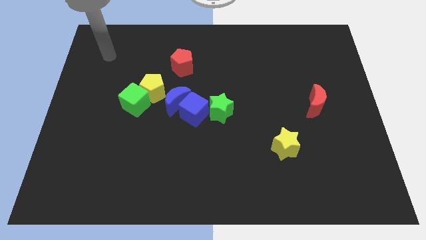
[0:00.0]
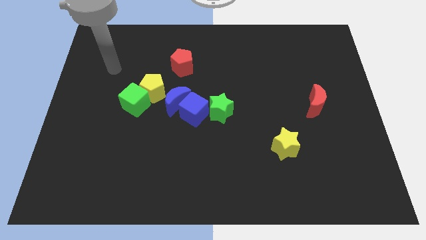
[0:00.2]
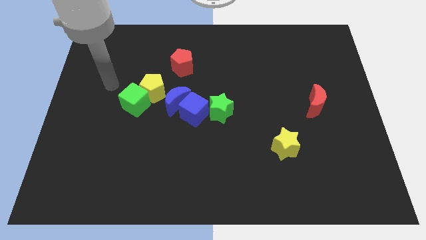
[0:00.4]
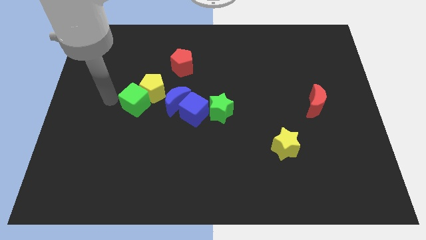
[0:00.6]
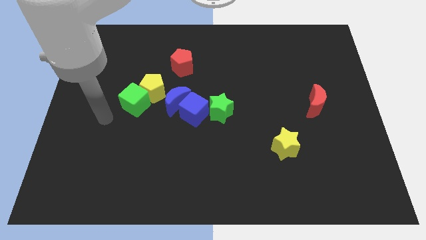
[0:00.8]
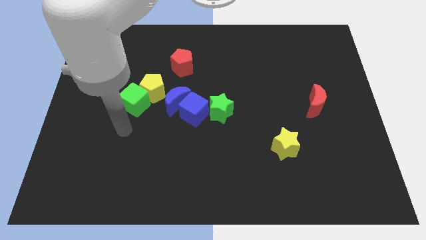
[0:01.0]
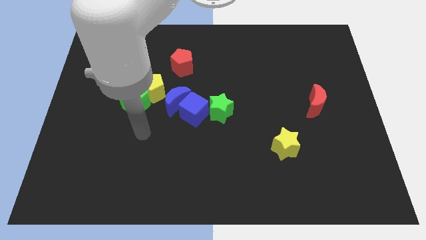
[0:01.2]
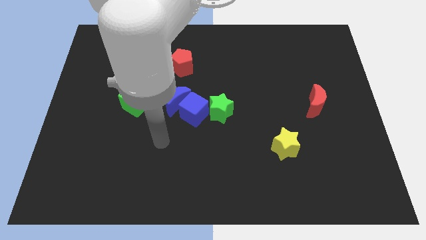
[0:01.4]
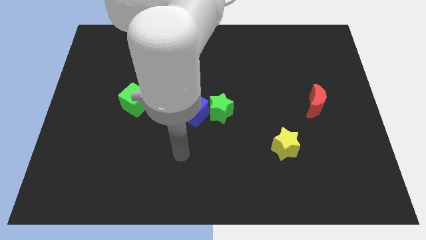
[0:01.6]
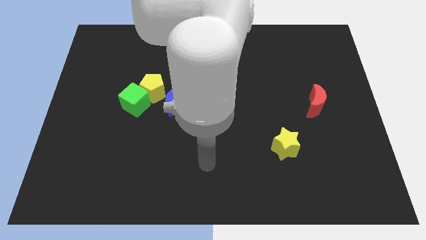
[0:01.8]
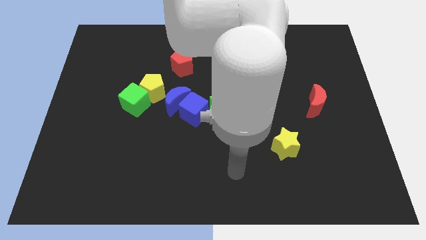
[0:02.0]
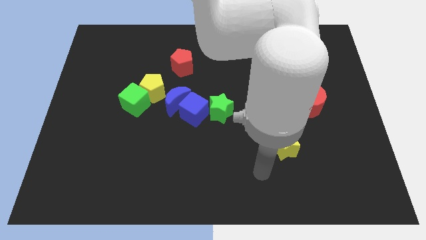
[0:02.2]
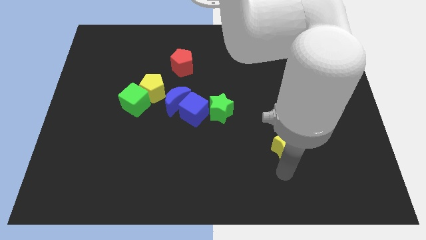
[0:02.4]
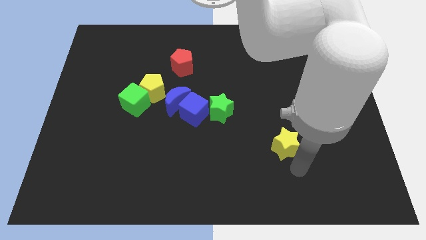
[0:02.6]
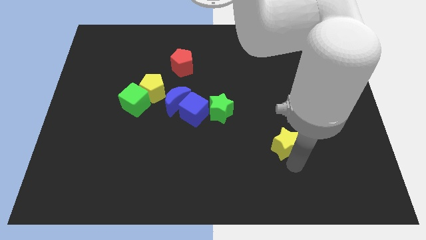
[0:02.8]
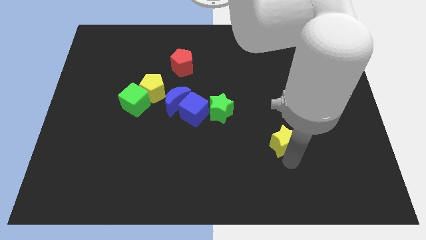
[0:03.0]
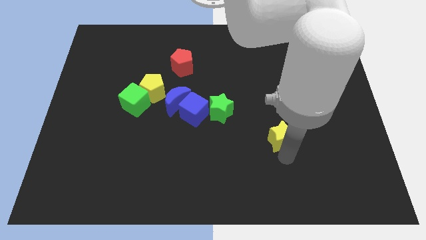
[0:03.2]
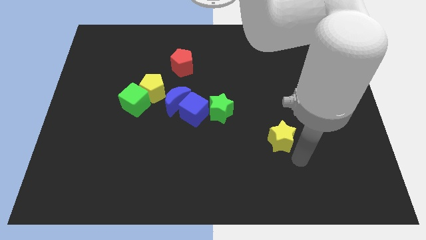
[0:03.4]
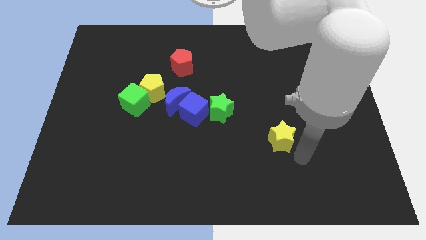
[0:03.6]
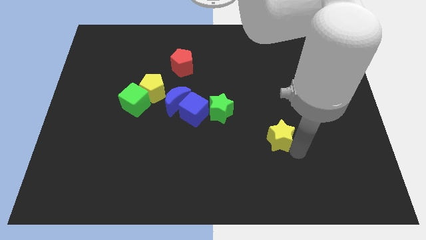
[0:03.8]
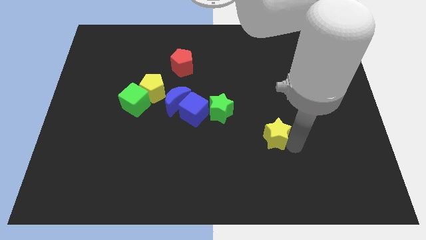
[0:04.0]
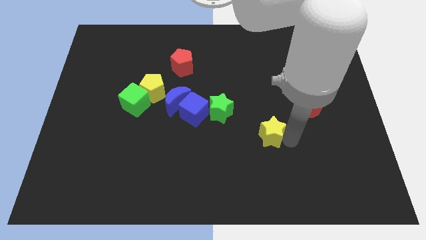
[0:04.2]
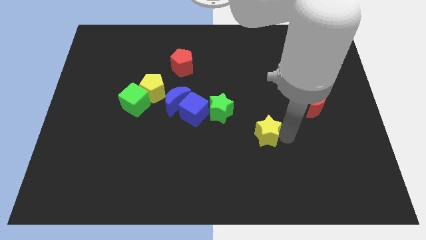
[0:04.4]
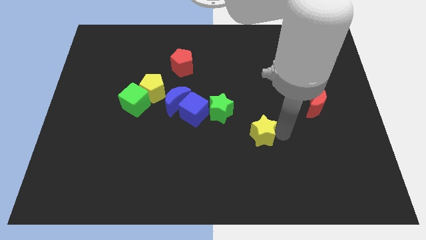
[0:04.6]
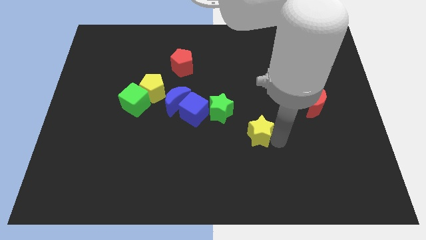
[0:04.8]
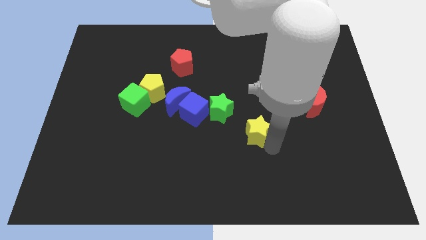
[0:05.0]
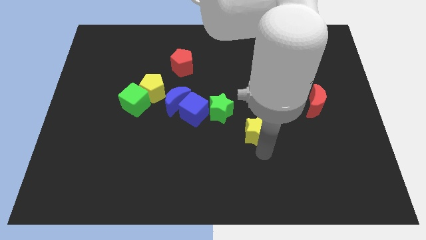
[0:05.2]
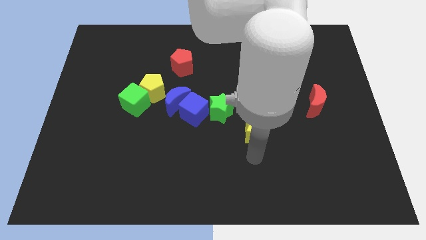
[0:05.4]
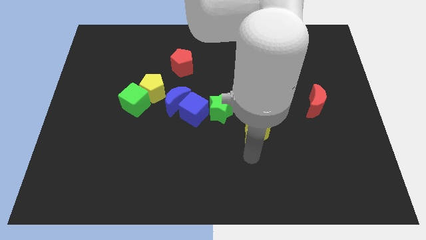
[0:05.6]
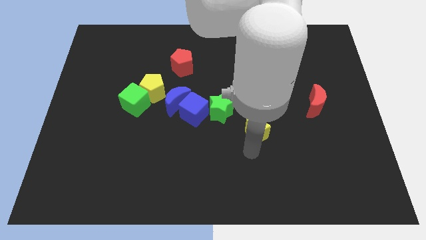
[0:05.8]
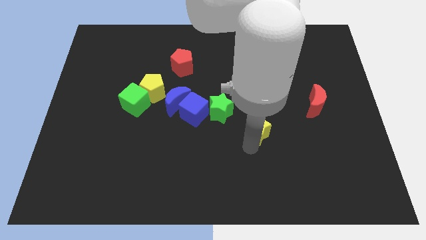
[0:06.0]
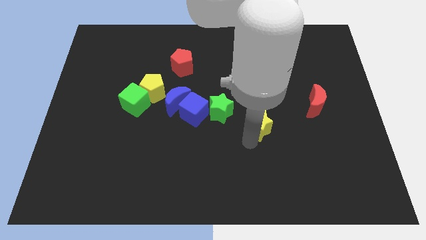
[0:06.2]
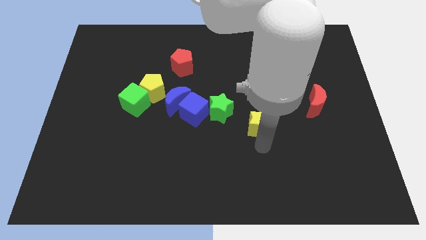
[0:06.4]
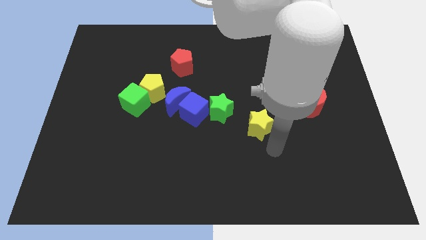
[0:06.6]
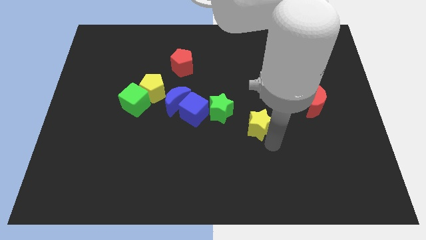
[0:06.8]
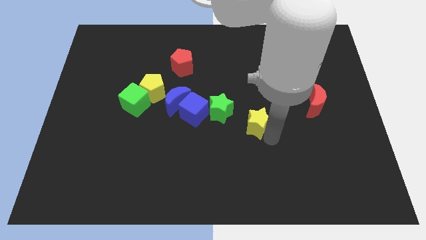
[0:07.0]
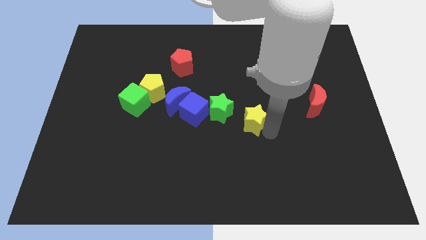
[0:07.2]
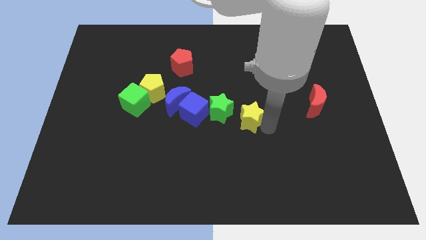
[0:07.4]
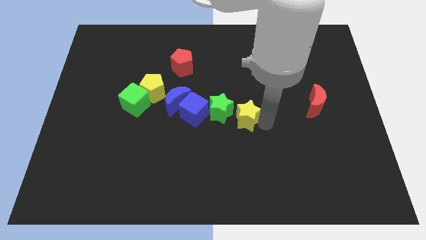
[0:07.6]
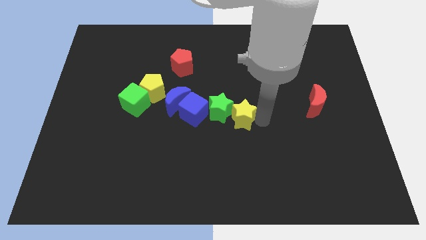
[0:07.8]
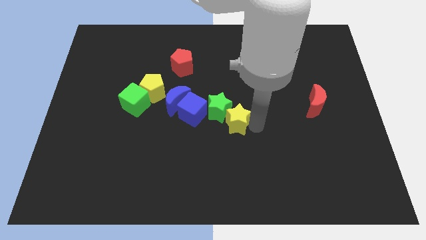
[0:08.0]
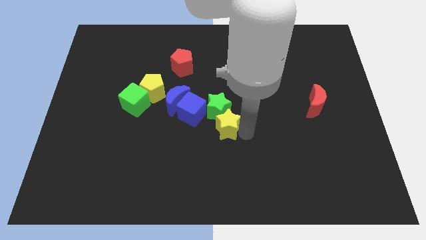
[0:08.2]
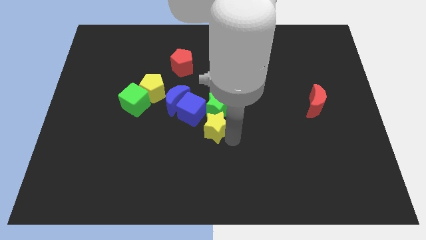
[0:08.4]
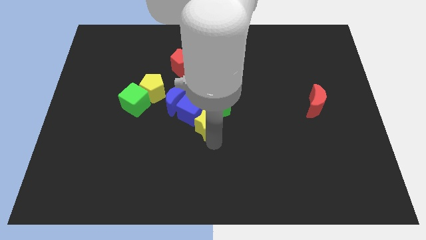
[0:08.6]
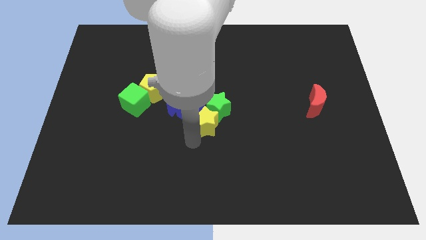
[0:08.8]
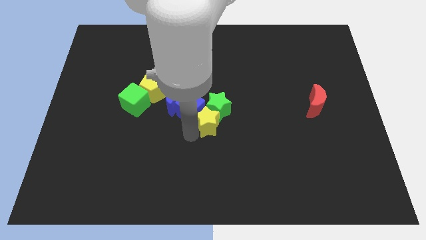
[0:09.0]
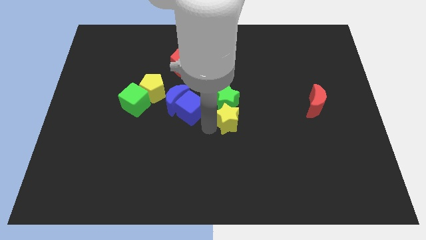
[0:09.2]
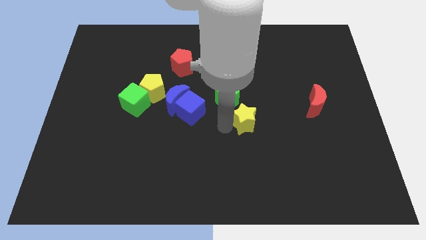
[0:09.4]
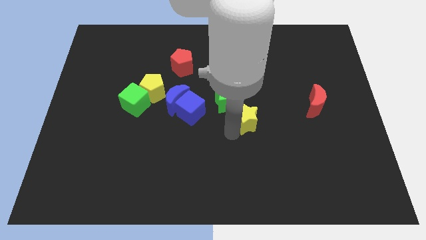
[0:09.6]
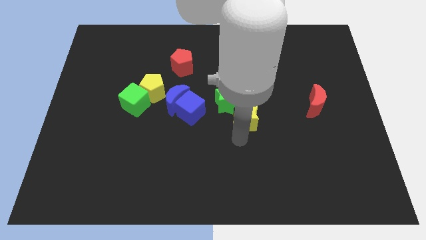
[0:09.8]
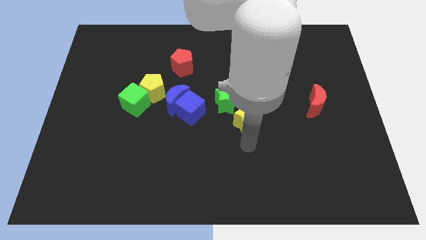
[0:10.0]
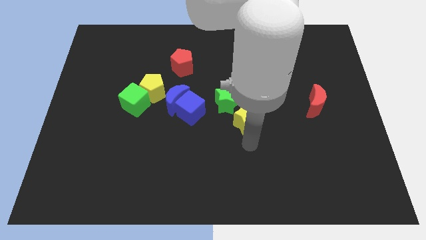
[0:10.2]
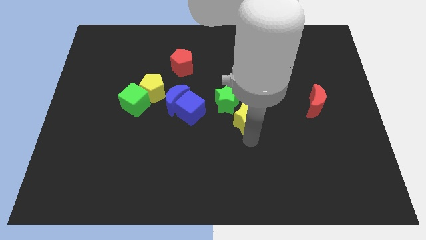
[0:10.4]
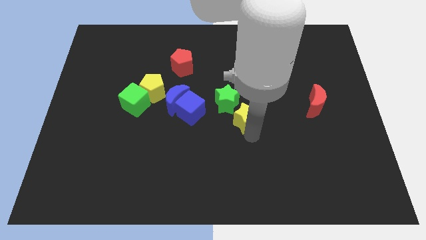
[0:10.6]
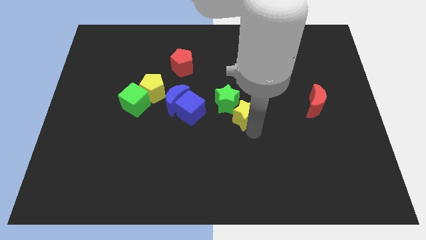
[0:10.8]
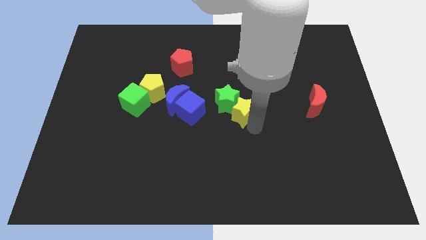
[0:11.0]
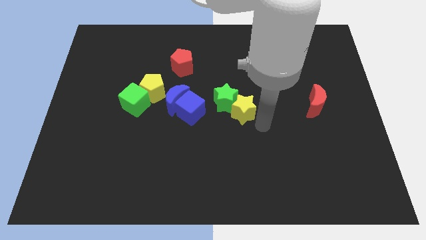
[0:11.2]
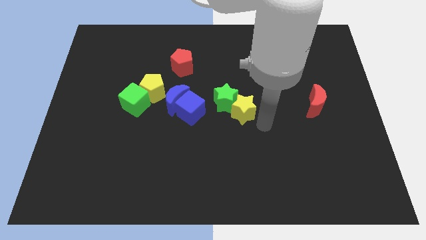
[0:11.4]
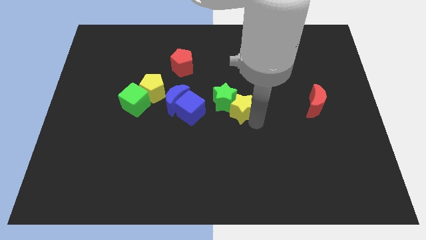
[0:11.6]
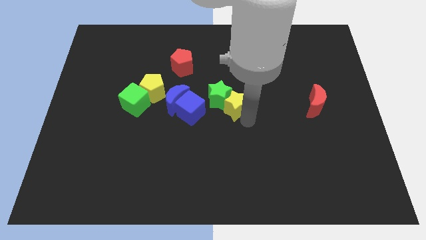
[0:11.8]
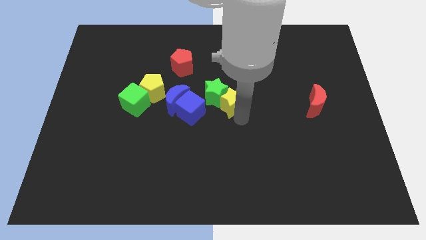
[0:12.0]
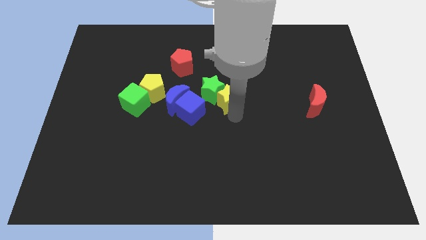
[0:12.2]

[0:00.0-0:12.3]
slide the yellow star diagonally up and to the right of the blue cube
